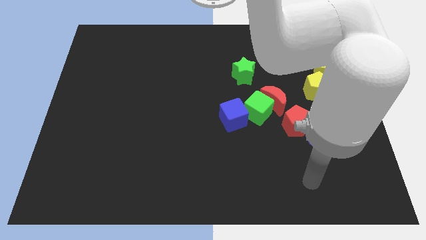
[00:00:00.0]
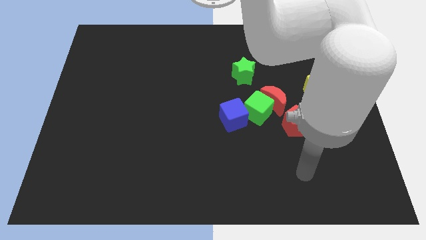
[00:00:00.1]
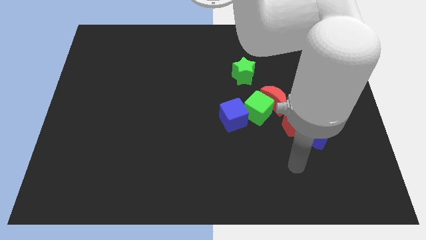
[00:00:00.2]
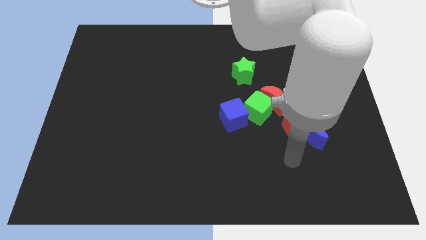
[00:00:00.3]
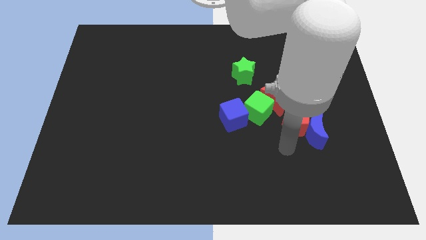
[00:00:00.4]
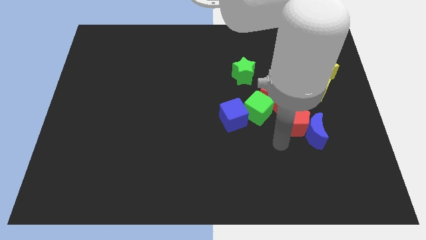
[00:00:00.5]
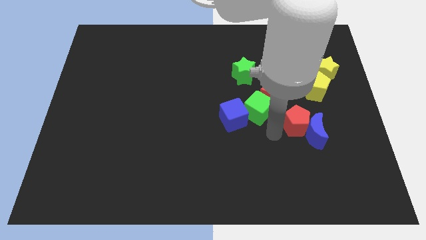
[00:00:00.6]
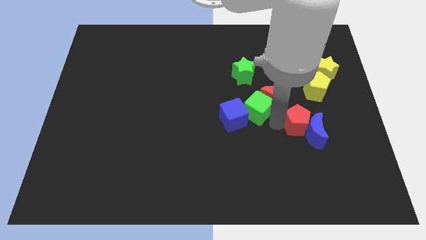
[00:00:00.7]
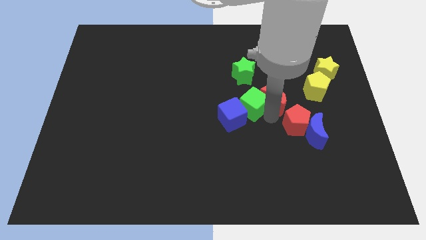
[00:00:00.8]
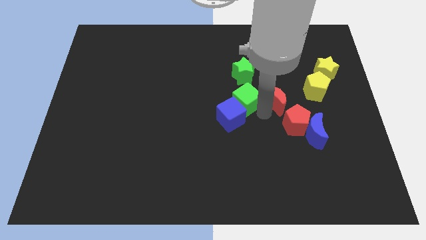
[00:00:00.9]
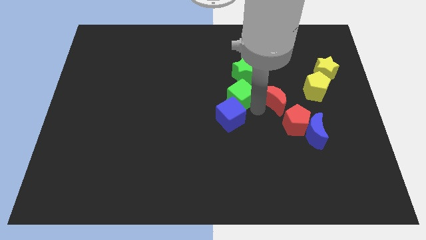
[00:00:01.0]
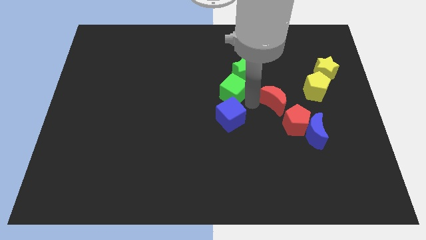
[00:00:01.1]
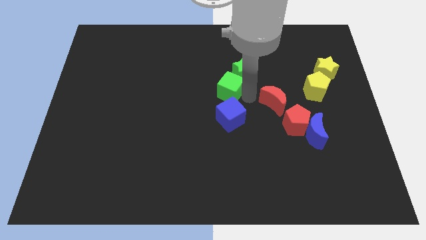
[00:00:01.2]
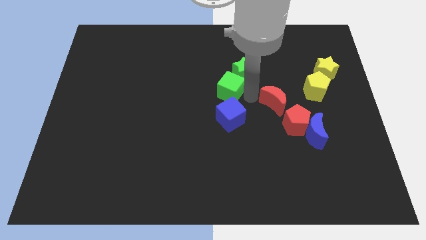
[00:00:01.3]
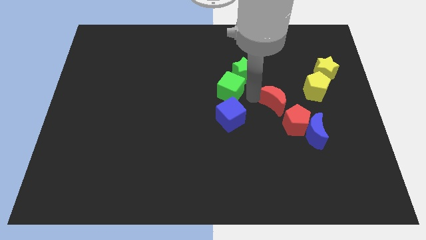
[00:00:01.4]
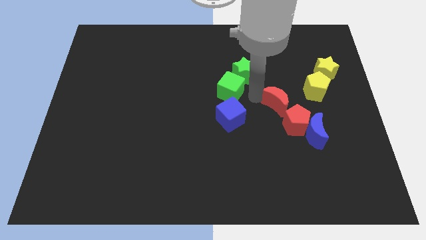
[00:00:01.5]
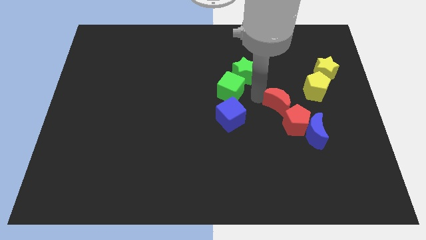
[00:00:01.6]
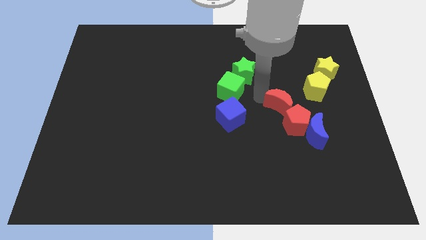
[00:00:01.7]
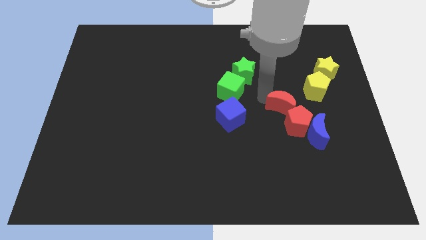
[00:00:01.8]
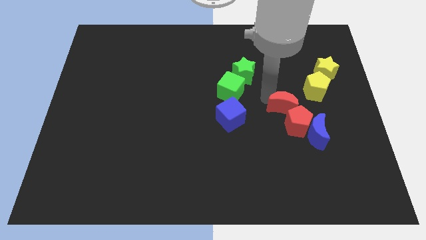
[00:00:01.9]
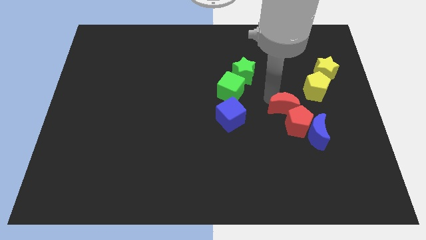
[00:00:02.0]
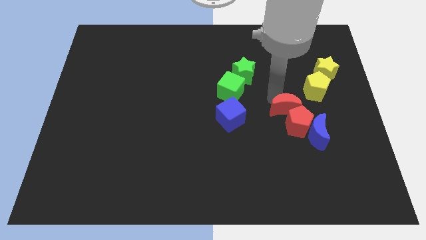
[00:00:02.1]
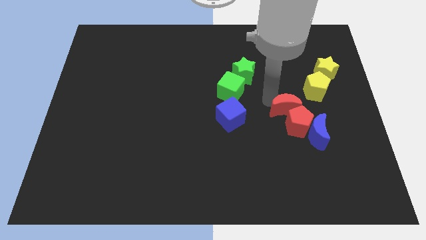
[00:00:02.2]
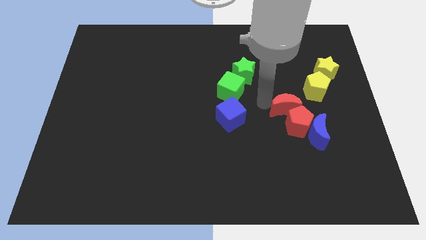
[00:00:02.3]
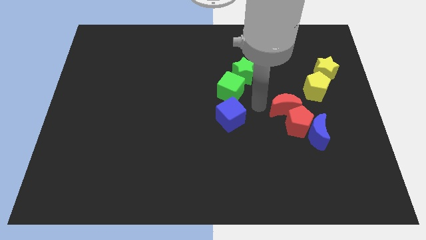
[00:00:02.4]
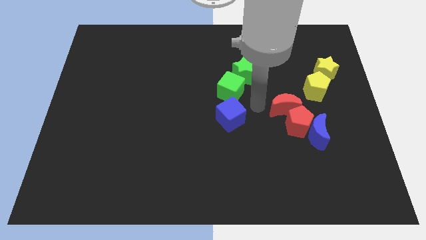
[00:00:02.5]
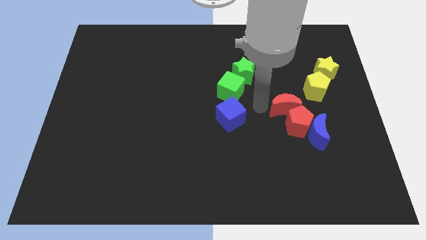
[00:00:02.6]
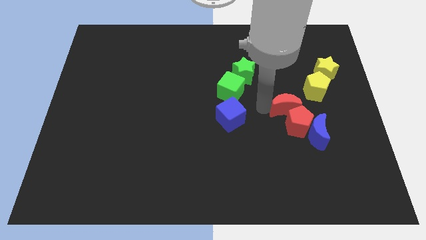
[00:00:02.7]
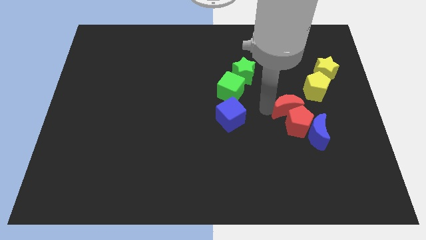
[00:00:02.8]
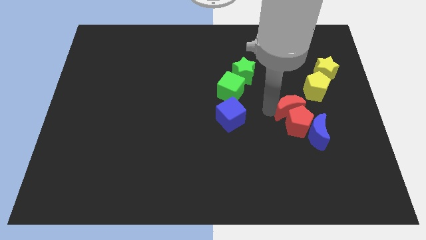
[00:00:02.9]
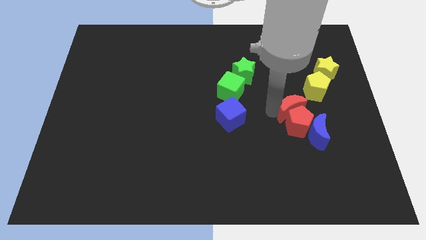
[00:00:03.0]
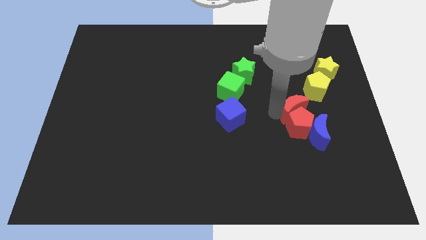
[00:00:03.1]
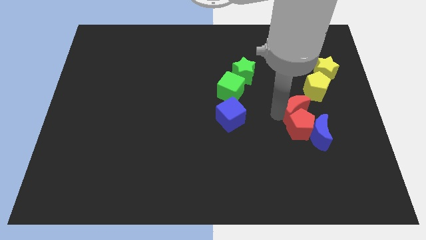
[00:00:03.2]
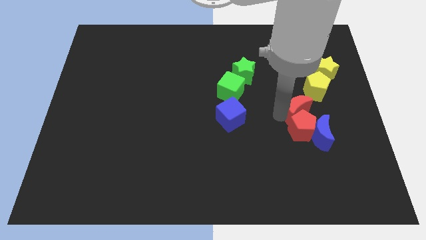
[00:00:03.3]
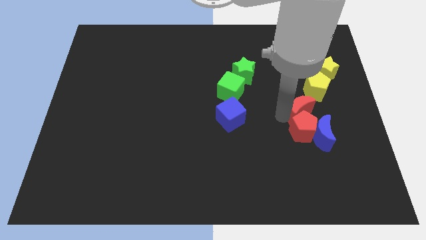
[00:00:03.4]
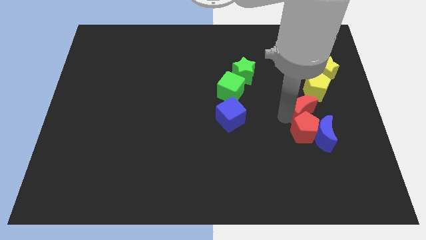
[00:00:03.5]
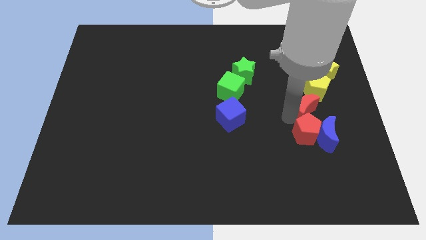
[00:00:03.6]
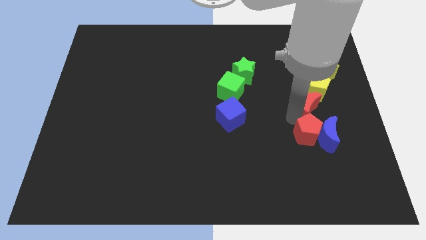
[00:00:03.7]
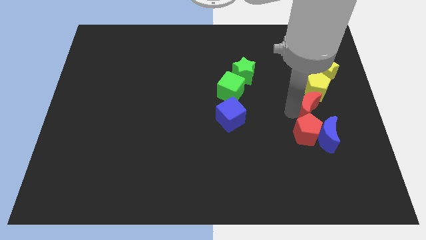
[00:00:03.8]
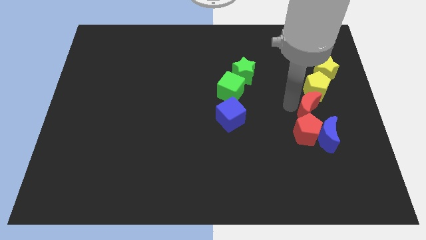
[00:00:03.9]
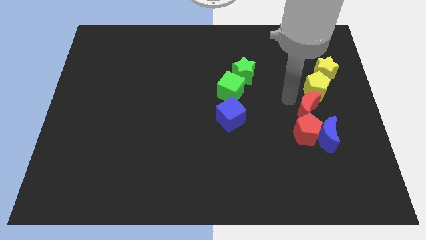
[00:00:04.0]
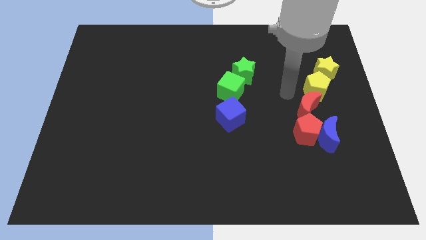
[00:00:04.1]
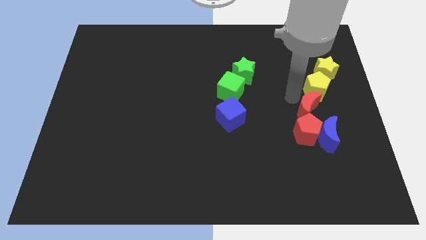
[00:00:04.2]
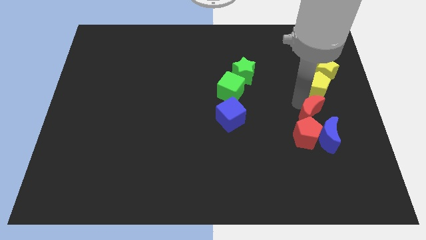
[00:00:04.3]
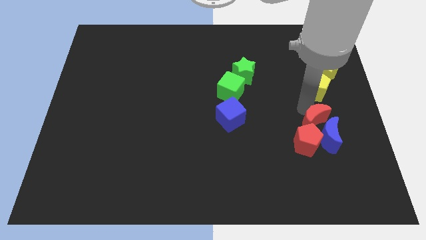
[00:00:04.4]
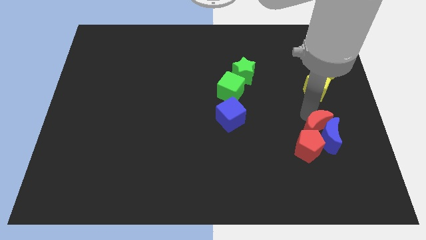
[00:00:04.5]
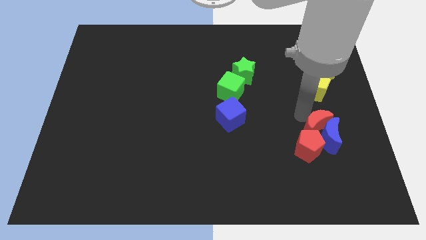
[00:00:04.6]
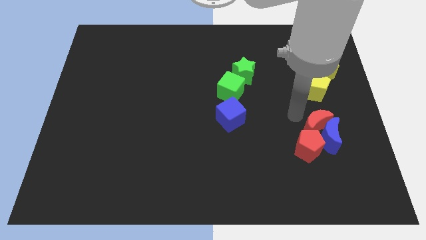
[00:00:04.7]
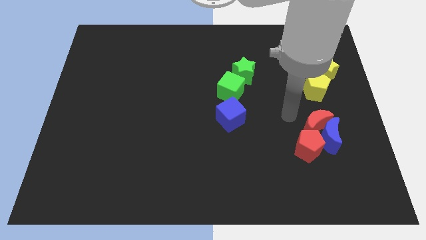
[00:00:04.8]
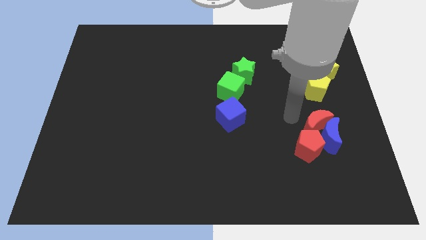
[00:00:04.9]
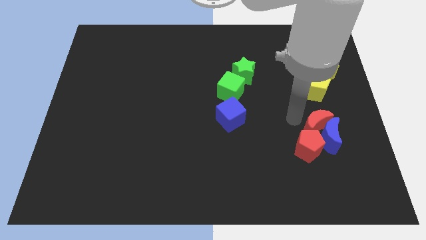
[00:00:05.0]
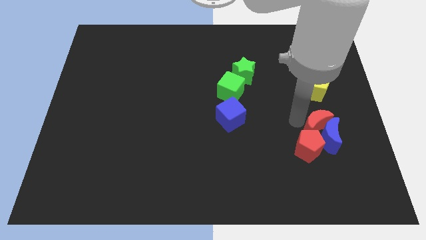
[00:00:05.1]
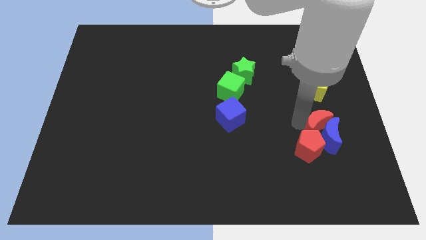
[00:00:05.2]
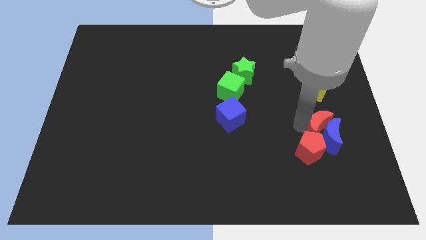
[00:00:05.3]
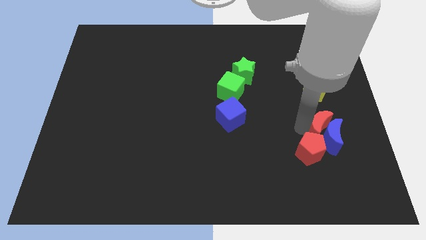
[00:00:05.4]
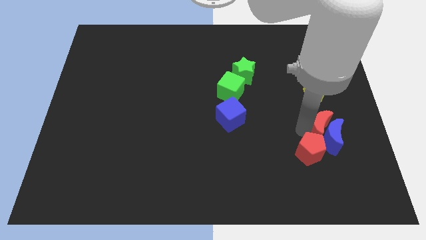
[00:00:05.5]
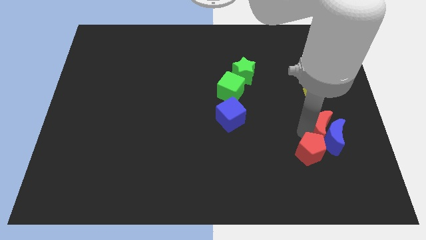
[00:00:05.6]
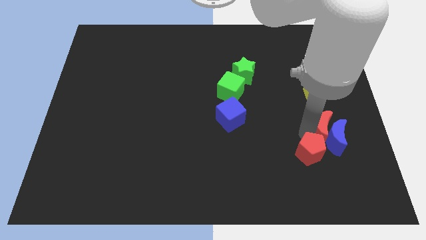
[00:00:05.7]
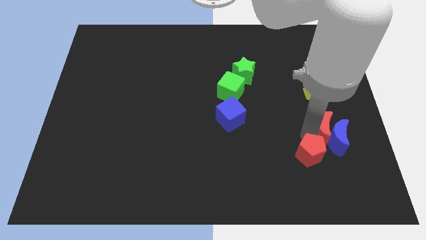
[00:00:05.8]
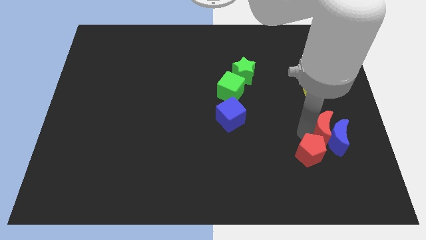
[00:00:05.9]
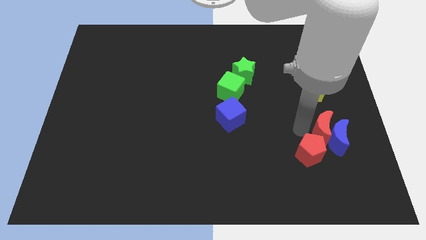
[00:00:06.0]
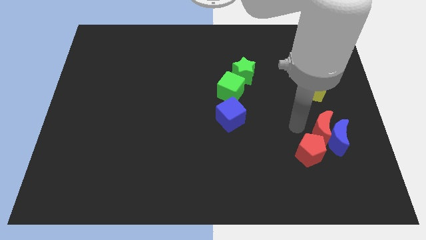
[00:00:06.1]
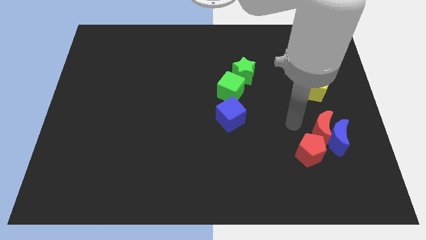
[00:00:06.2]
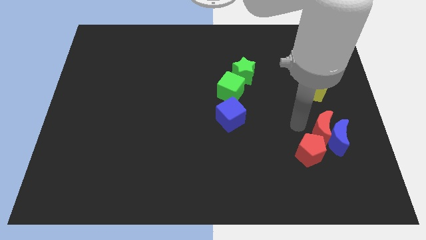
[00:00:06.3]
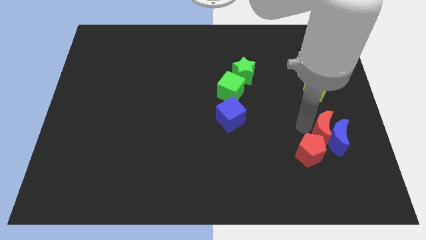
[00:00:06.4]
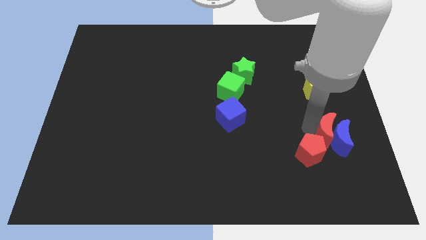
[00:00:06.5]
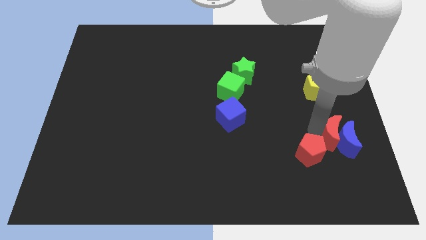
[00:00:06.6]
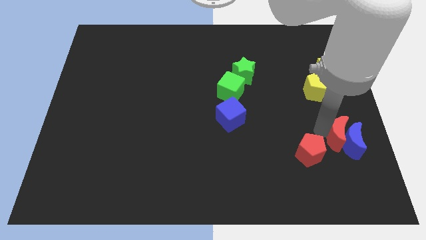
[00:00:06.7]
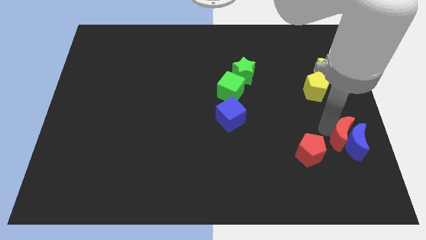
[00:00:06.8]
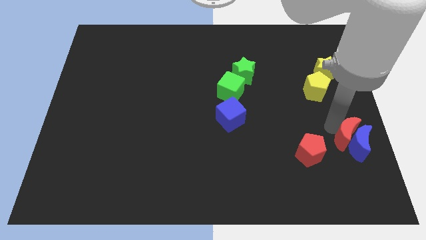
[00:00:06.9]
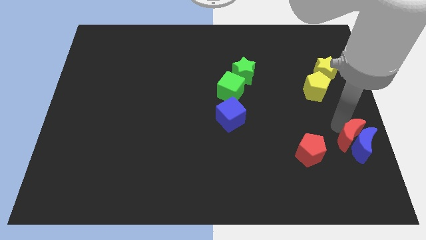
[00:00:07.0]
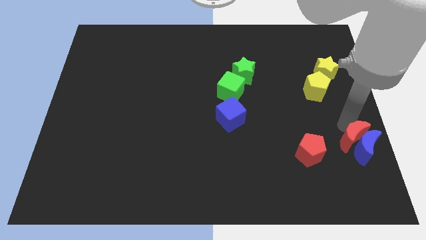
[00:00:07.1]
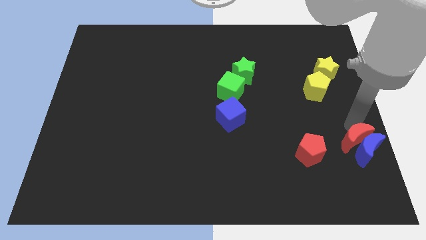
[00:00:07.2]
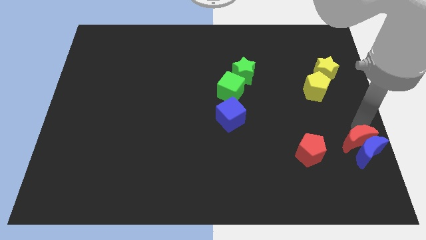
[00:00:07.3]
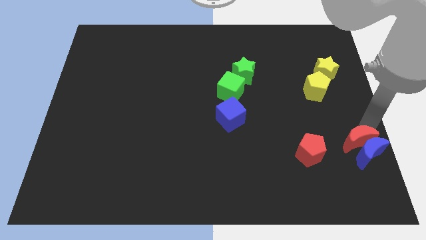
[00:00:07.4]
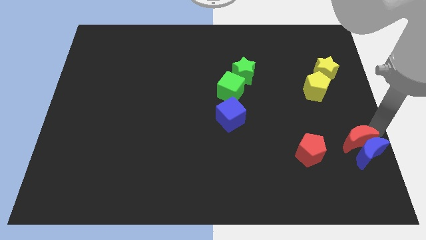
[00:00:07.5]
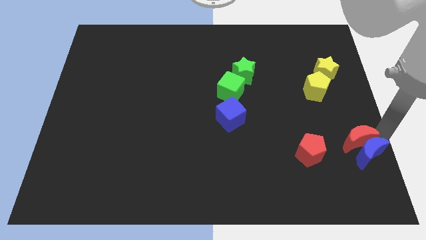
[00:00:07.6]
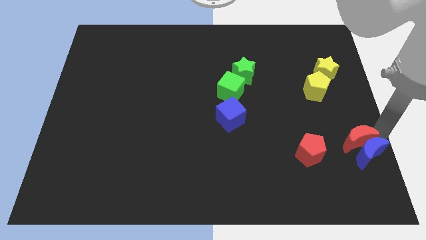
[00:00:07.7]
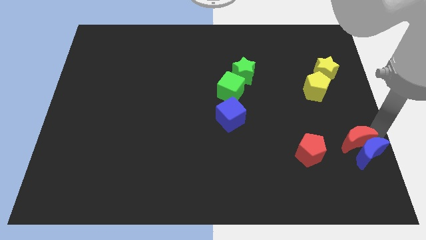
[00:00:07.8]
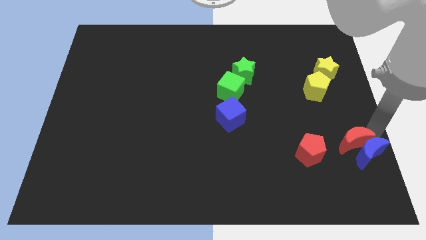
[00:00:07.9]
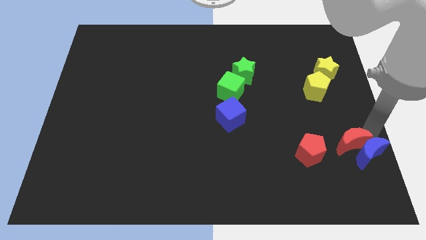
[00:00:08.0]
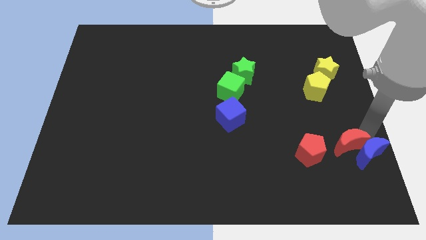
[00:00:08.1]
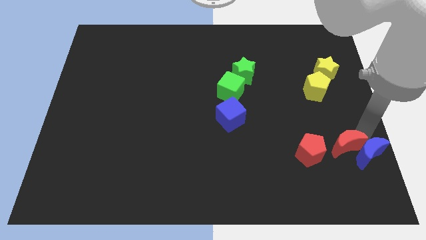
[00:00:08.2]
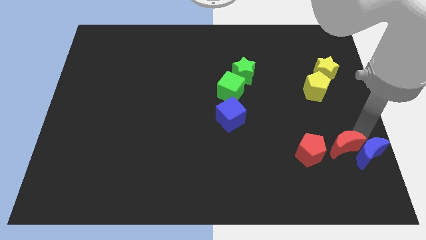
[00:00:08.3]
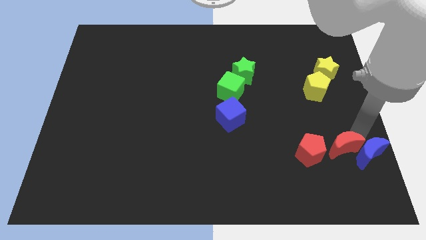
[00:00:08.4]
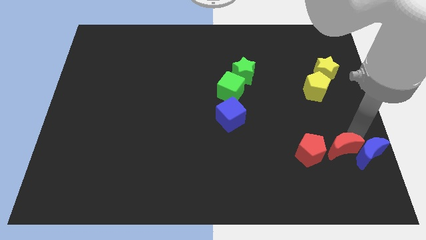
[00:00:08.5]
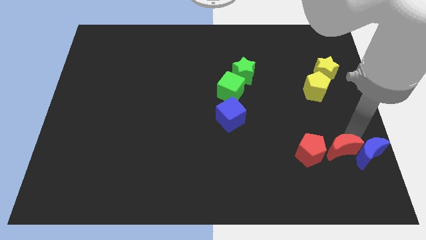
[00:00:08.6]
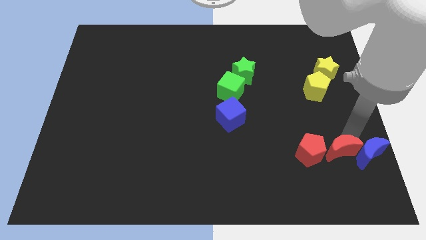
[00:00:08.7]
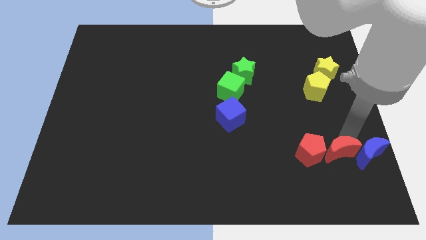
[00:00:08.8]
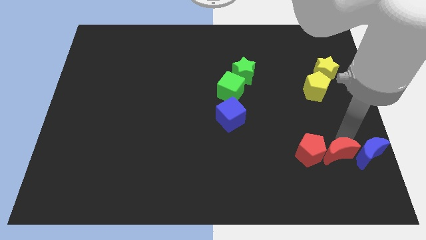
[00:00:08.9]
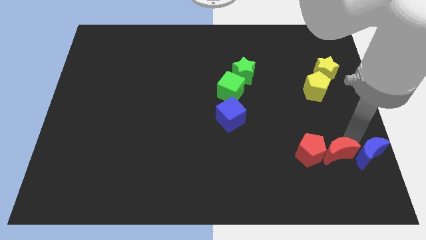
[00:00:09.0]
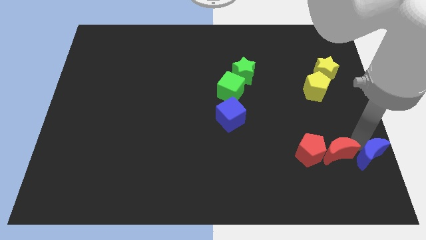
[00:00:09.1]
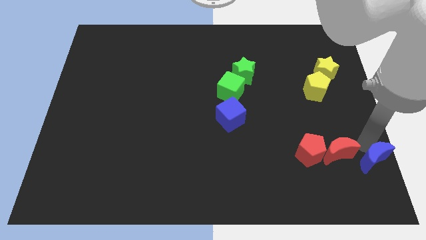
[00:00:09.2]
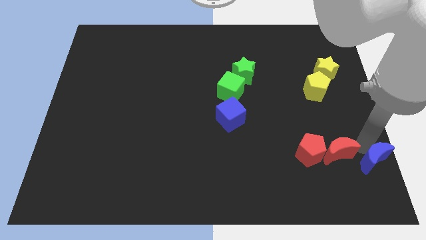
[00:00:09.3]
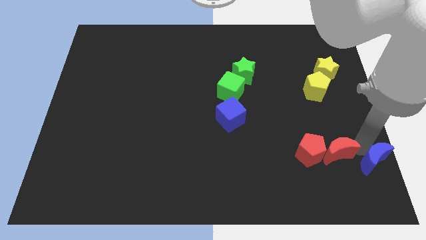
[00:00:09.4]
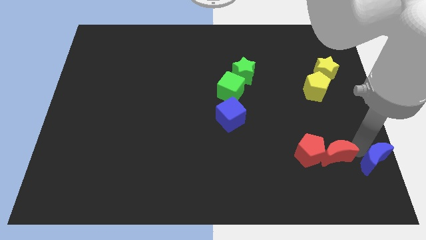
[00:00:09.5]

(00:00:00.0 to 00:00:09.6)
move the red moon down somewhat
